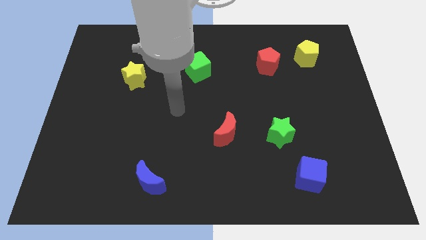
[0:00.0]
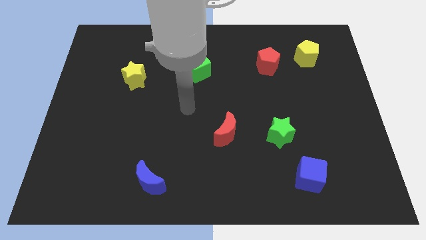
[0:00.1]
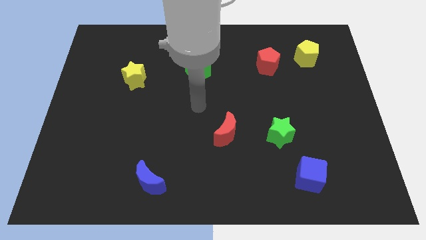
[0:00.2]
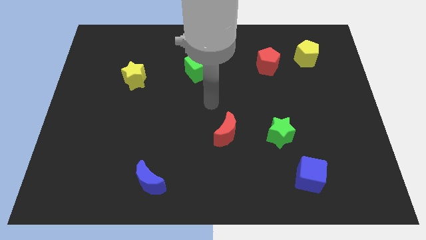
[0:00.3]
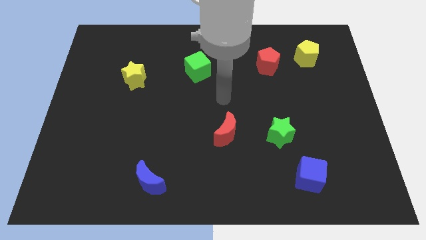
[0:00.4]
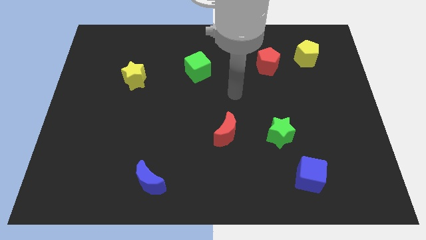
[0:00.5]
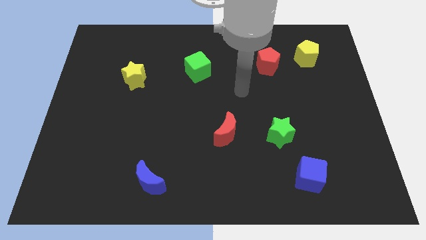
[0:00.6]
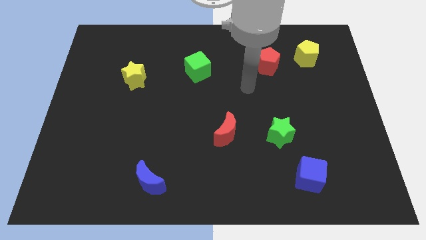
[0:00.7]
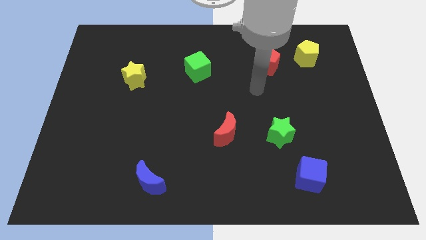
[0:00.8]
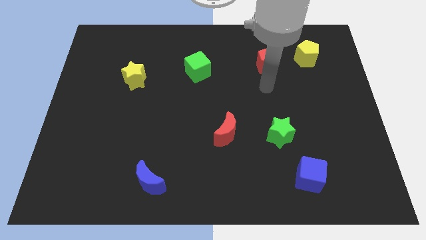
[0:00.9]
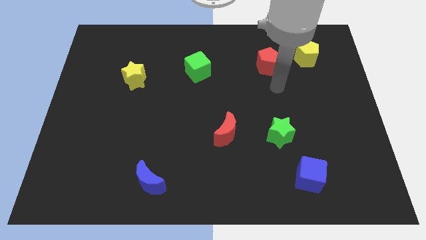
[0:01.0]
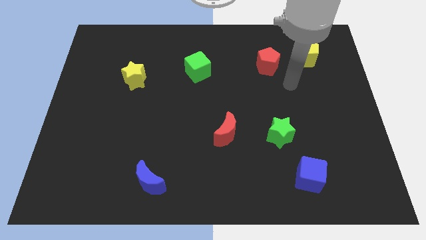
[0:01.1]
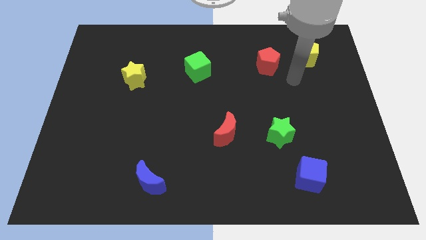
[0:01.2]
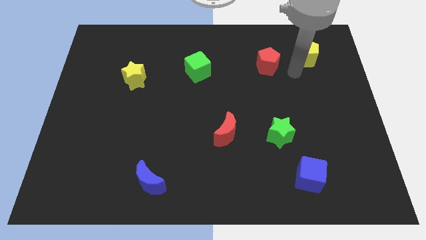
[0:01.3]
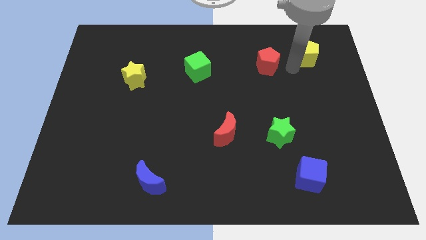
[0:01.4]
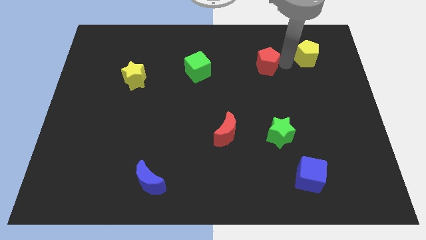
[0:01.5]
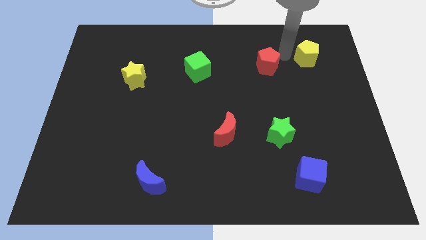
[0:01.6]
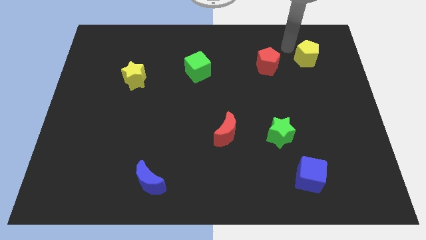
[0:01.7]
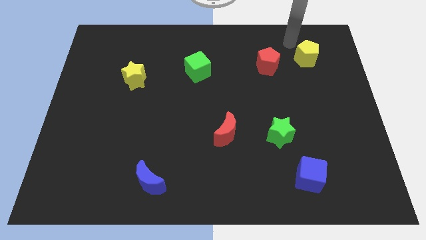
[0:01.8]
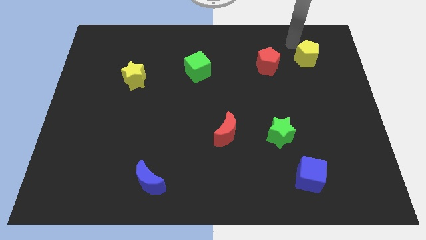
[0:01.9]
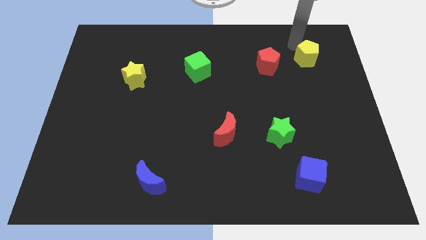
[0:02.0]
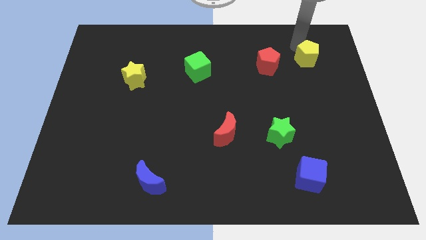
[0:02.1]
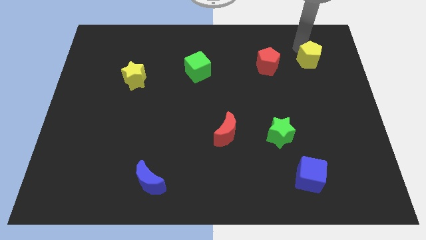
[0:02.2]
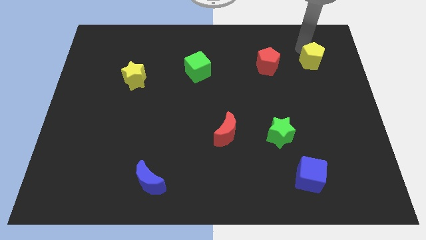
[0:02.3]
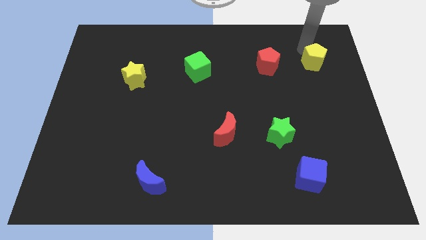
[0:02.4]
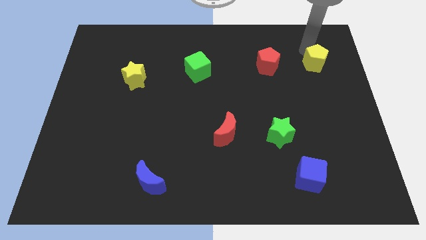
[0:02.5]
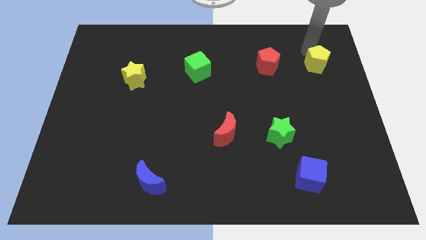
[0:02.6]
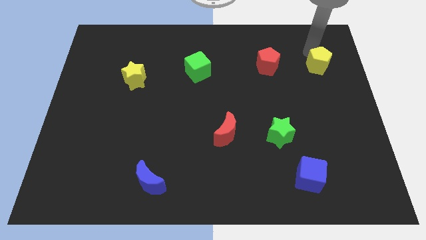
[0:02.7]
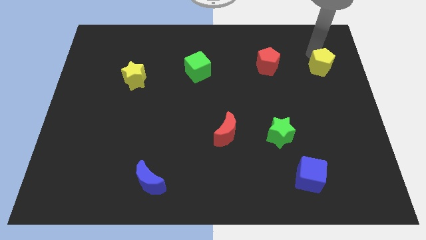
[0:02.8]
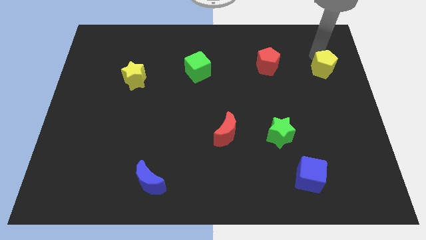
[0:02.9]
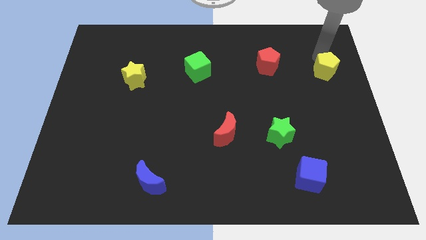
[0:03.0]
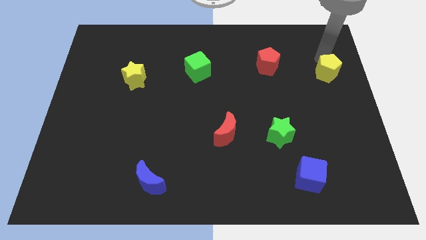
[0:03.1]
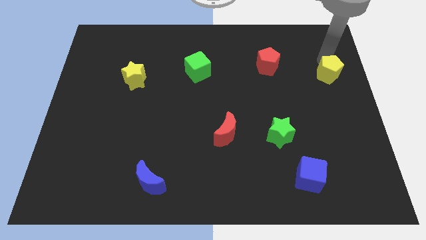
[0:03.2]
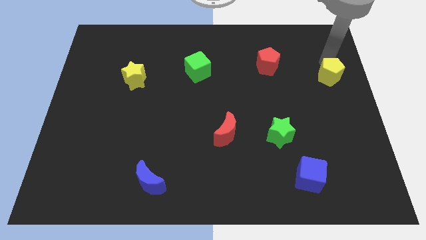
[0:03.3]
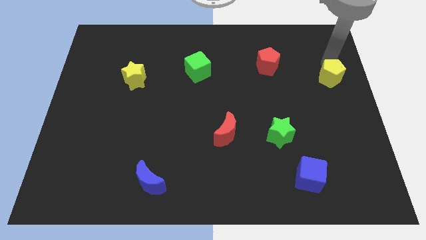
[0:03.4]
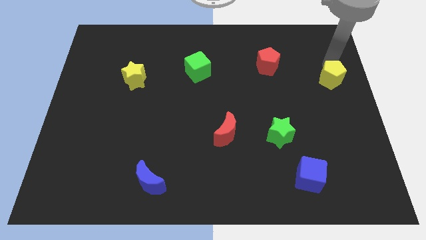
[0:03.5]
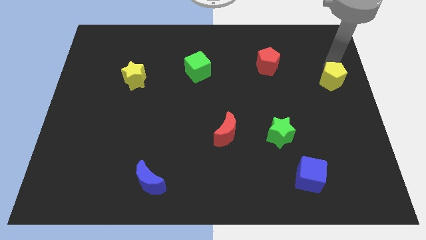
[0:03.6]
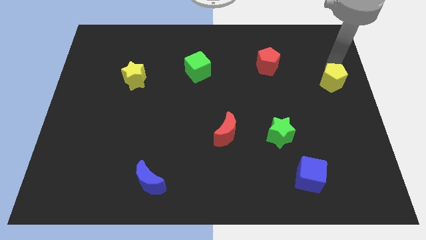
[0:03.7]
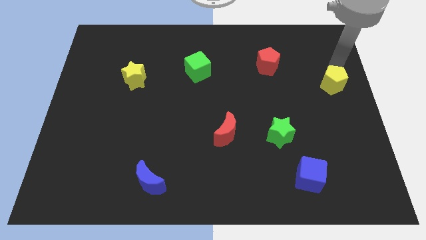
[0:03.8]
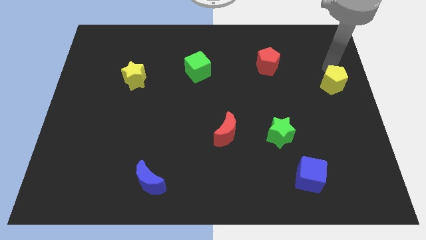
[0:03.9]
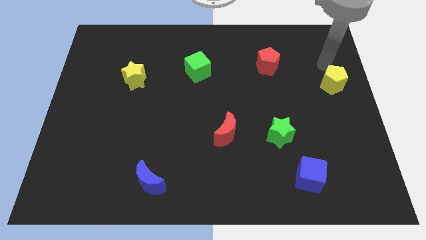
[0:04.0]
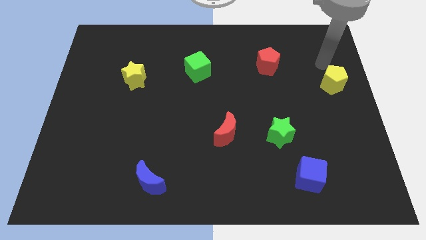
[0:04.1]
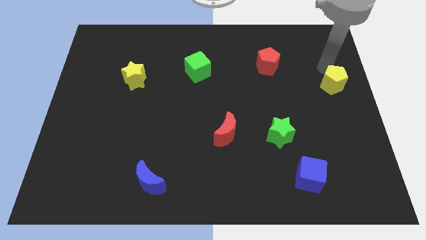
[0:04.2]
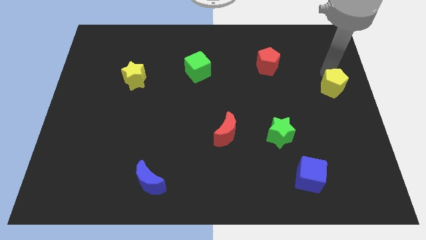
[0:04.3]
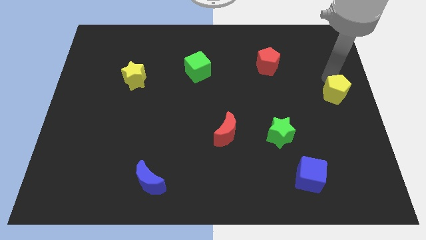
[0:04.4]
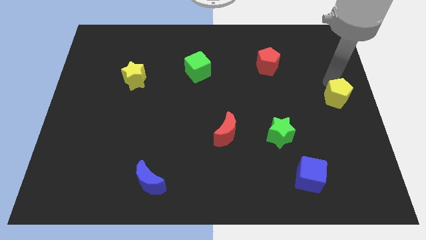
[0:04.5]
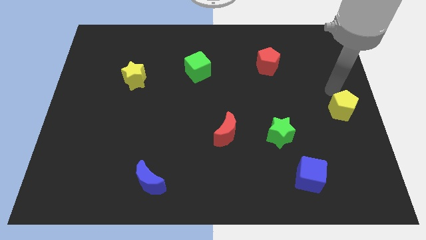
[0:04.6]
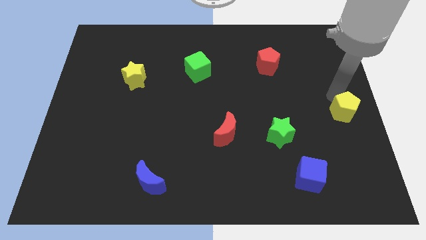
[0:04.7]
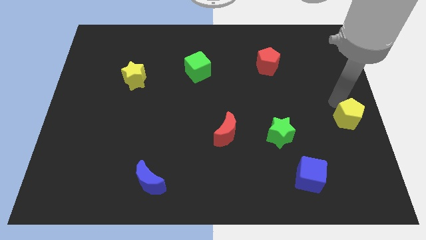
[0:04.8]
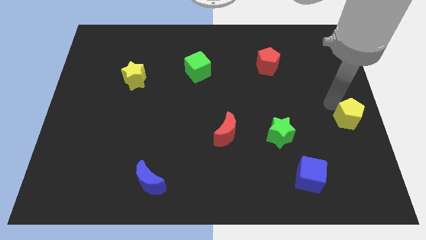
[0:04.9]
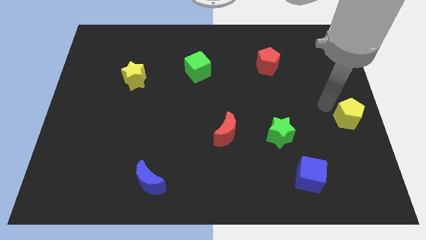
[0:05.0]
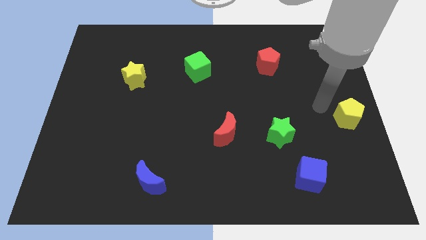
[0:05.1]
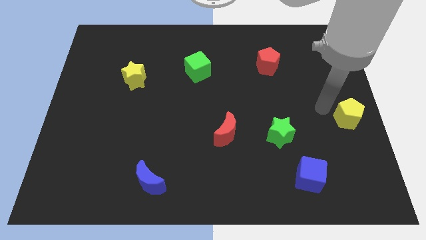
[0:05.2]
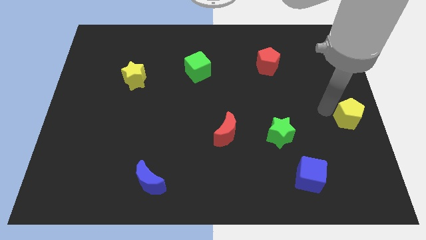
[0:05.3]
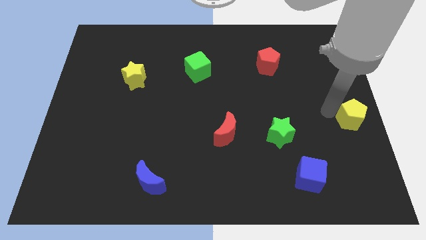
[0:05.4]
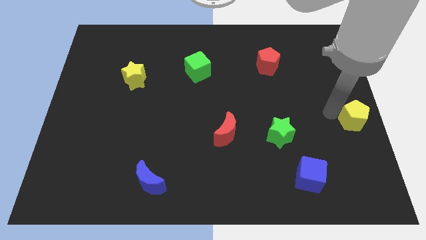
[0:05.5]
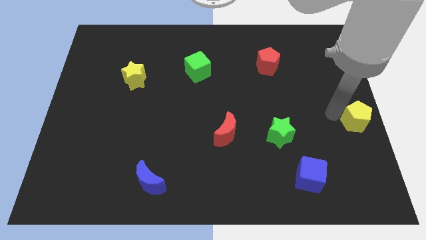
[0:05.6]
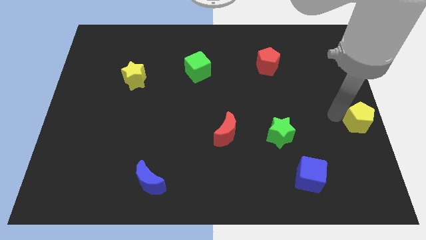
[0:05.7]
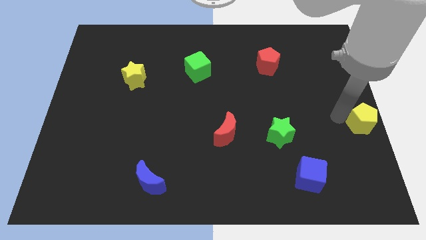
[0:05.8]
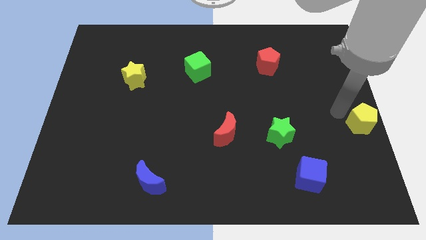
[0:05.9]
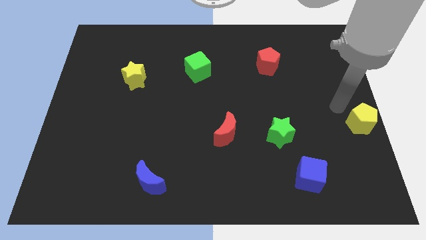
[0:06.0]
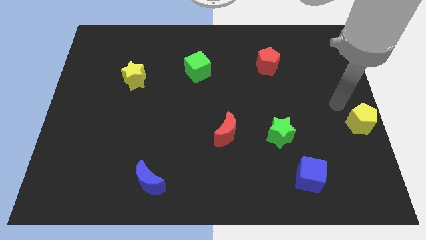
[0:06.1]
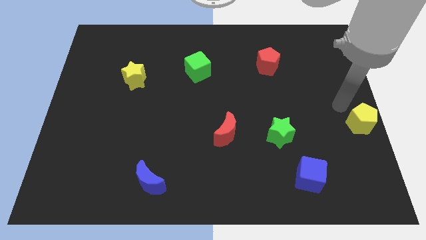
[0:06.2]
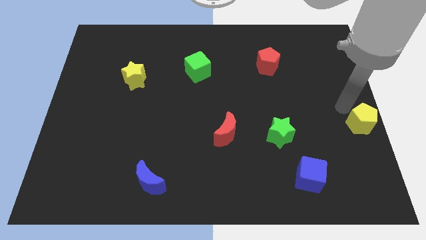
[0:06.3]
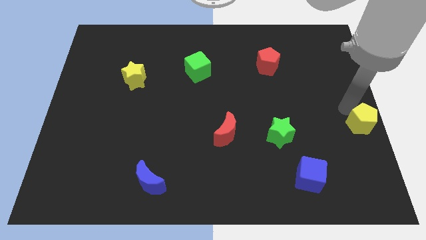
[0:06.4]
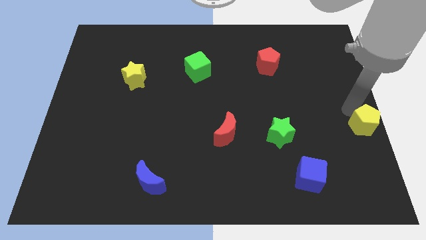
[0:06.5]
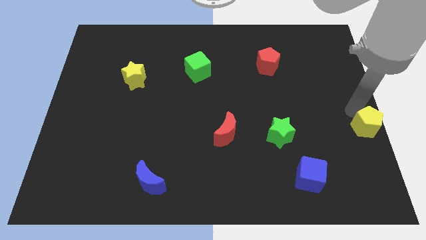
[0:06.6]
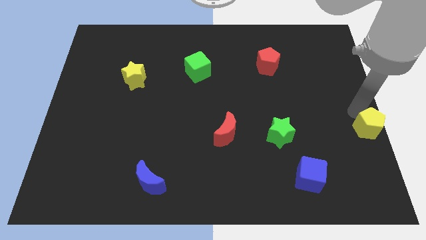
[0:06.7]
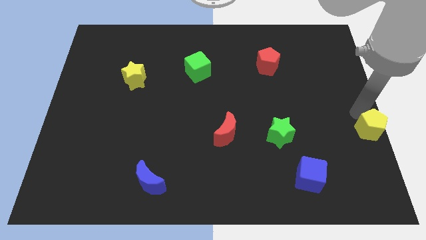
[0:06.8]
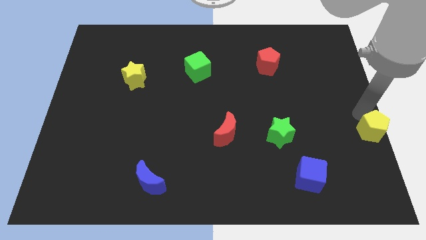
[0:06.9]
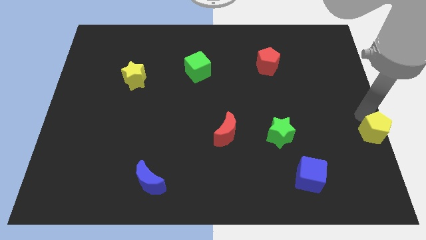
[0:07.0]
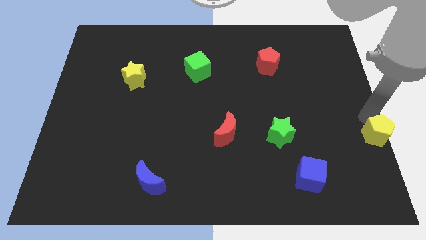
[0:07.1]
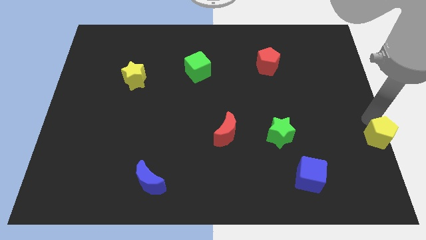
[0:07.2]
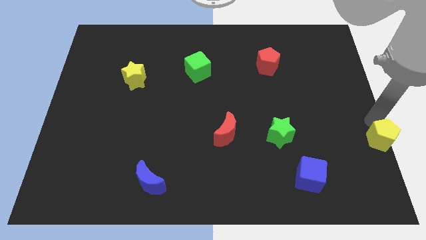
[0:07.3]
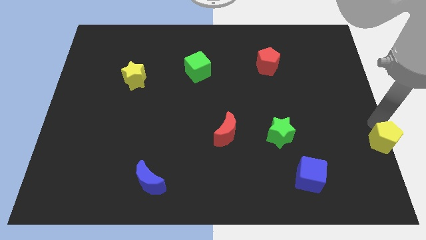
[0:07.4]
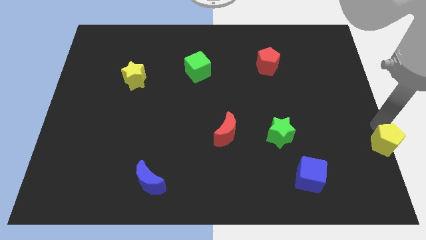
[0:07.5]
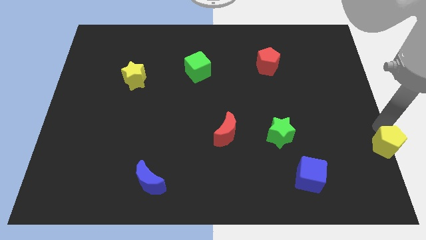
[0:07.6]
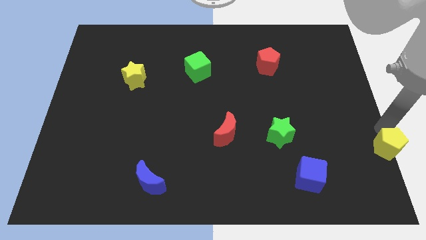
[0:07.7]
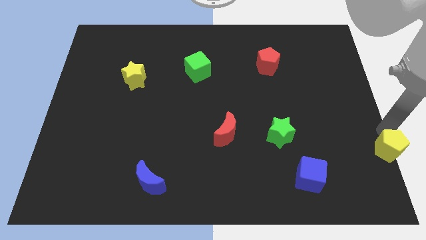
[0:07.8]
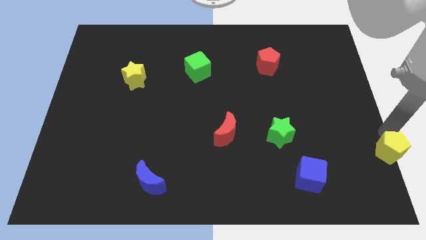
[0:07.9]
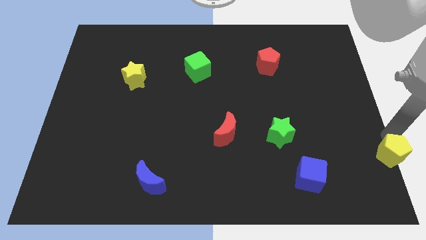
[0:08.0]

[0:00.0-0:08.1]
move the yellow pentagon to the bottom right of the board
